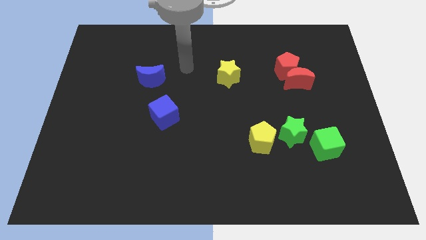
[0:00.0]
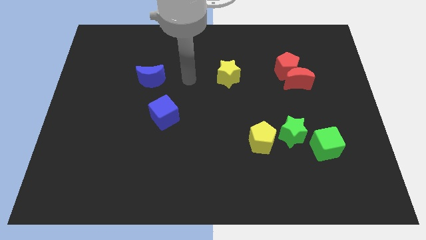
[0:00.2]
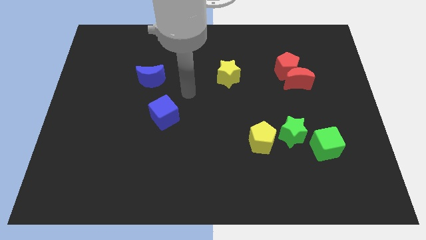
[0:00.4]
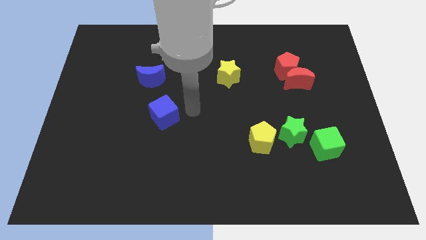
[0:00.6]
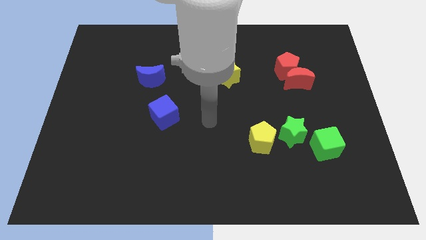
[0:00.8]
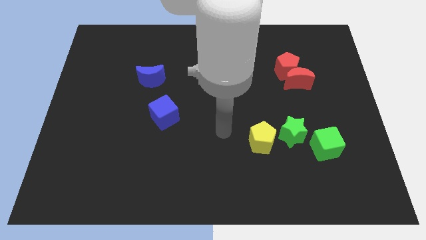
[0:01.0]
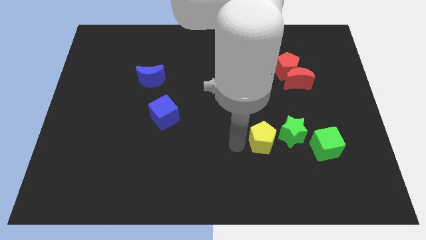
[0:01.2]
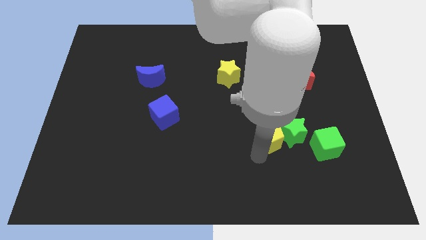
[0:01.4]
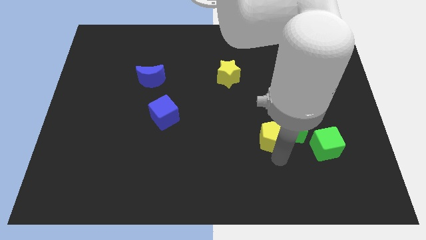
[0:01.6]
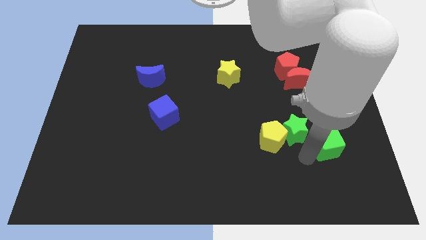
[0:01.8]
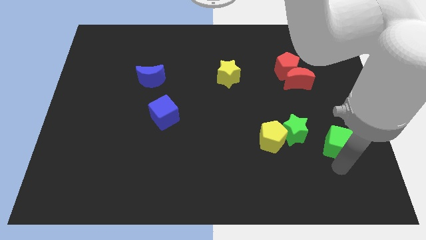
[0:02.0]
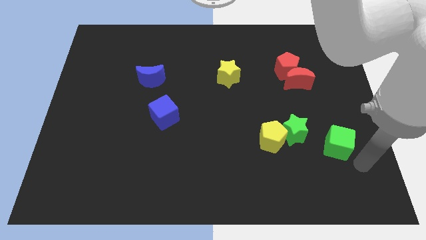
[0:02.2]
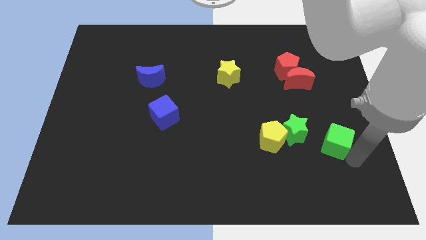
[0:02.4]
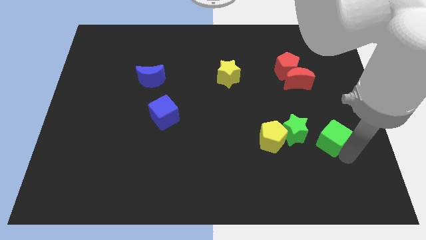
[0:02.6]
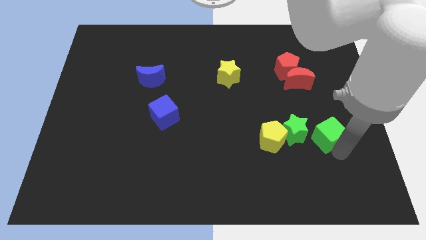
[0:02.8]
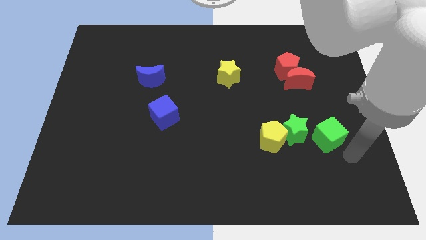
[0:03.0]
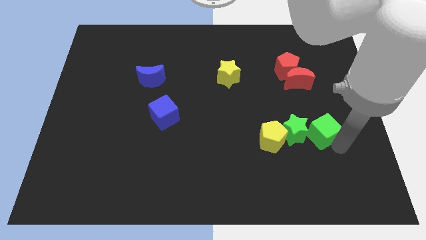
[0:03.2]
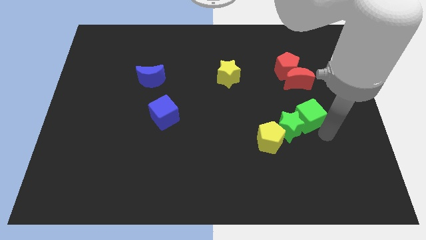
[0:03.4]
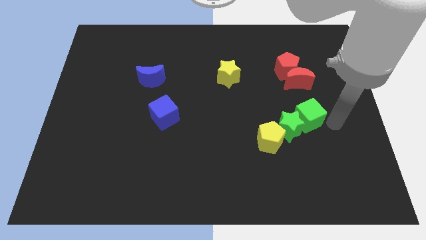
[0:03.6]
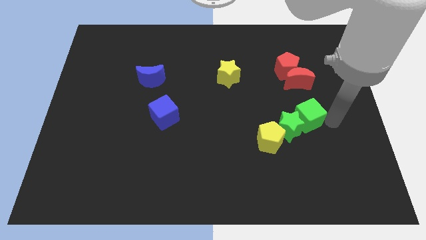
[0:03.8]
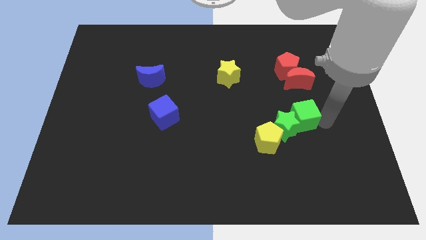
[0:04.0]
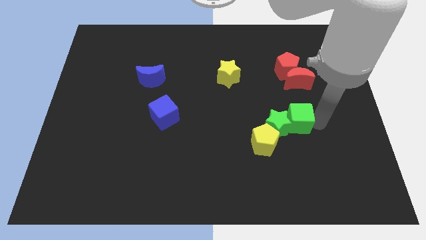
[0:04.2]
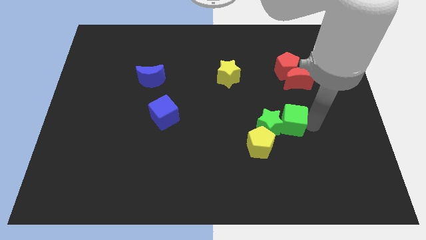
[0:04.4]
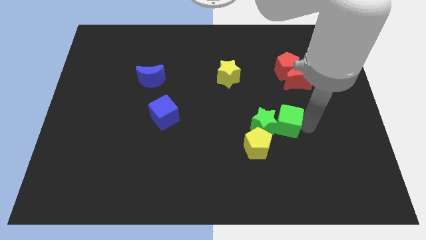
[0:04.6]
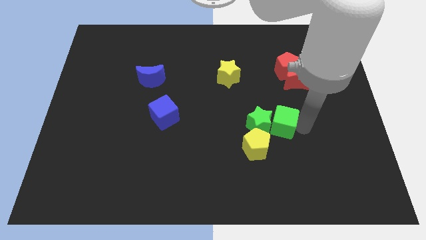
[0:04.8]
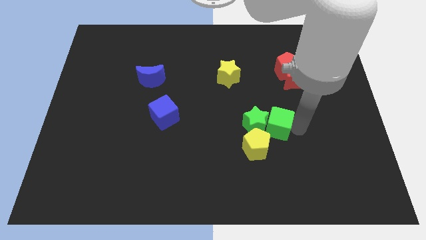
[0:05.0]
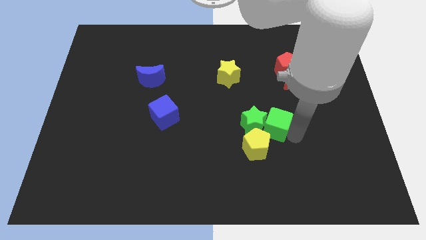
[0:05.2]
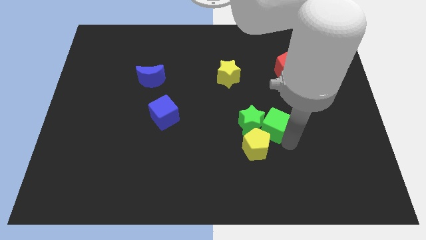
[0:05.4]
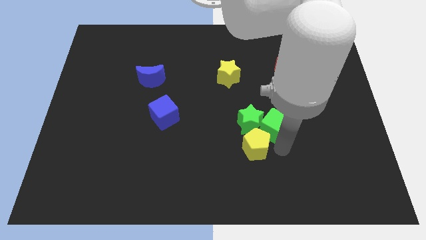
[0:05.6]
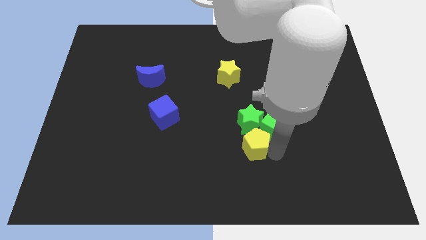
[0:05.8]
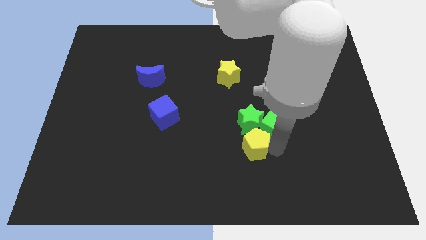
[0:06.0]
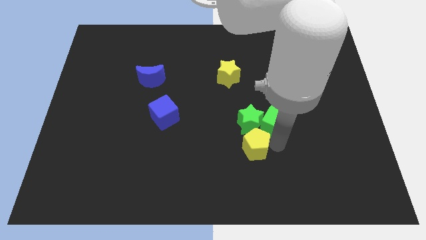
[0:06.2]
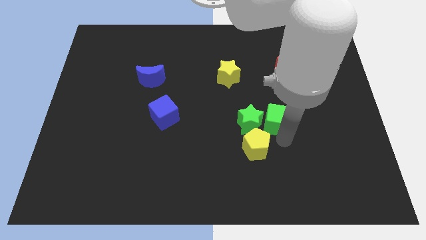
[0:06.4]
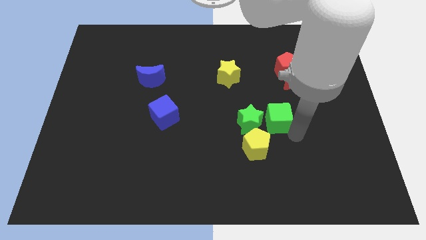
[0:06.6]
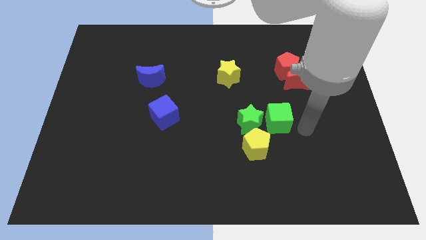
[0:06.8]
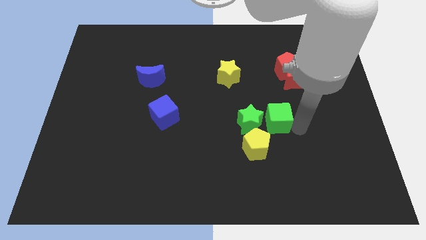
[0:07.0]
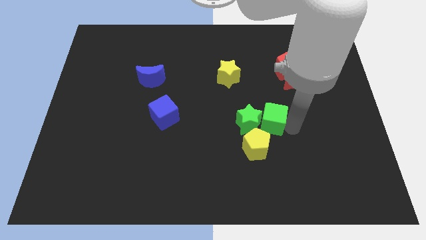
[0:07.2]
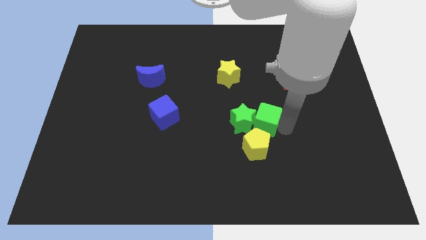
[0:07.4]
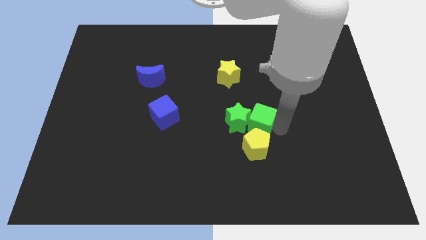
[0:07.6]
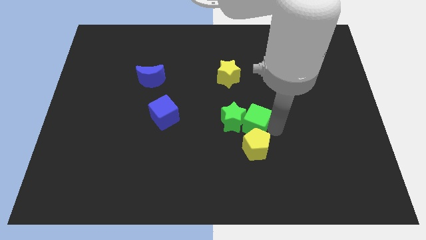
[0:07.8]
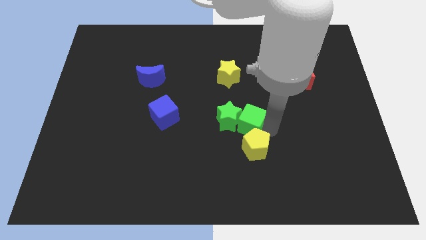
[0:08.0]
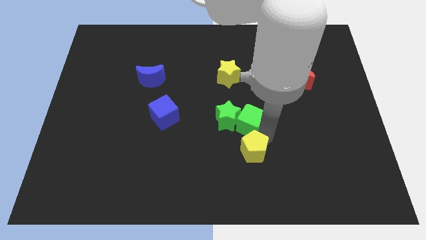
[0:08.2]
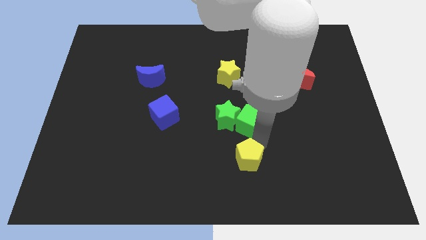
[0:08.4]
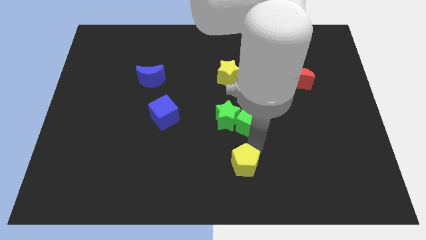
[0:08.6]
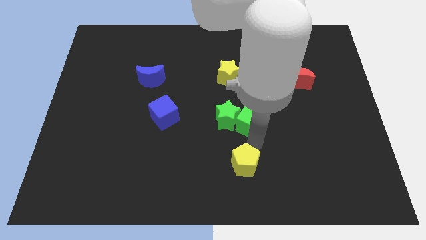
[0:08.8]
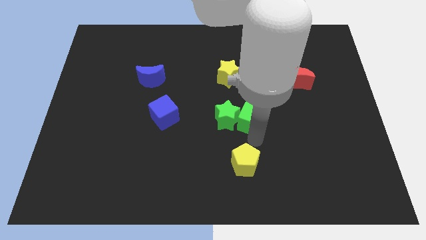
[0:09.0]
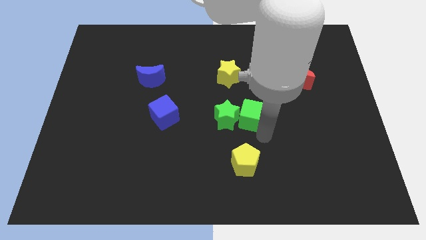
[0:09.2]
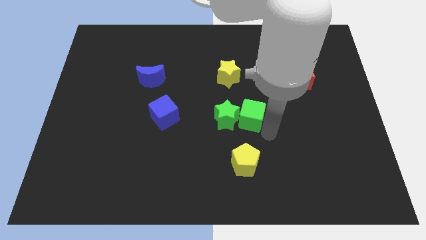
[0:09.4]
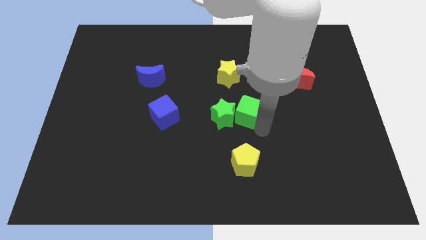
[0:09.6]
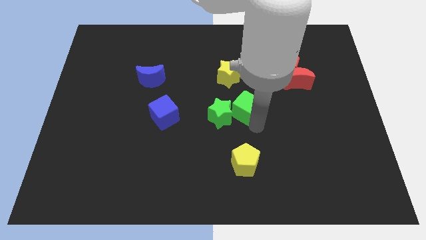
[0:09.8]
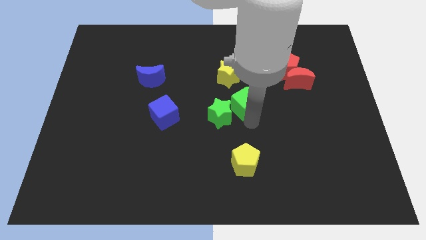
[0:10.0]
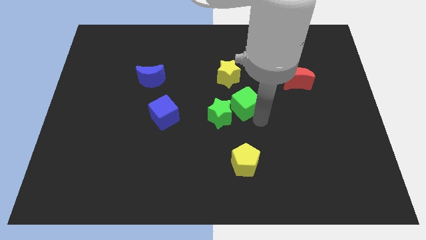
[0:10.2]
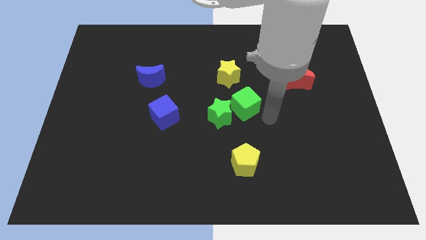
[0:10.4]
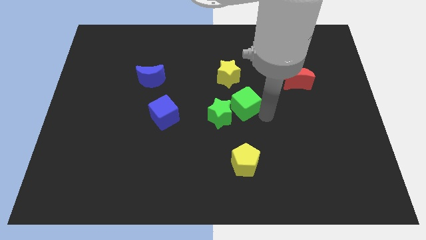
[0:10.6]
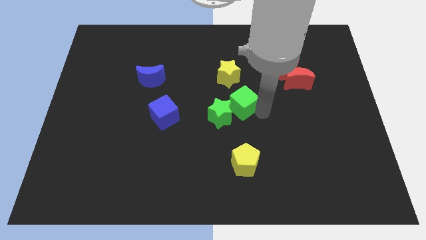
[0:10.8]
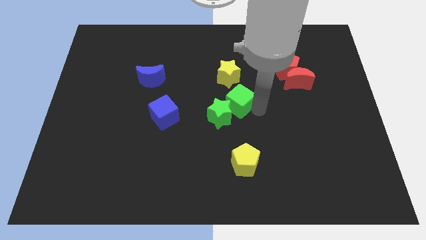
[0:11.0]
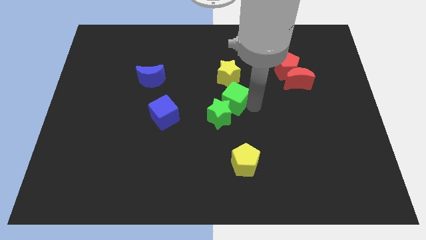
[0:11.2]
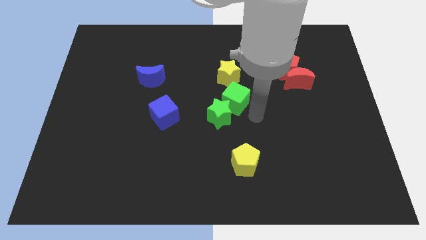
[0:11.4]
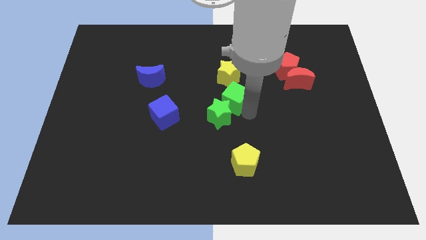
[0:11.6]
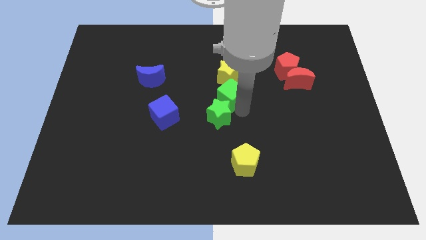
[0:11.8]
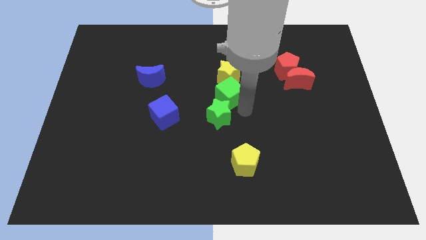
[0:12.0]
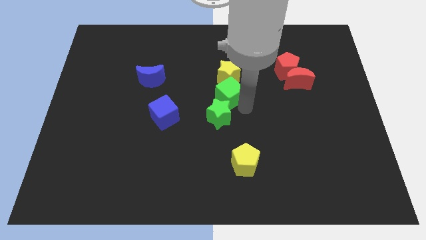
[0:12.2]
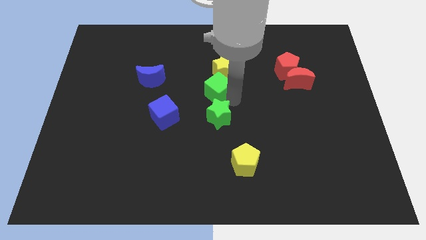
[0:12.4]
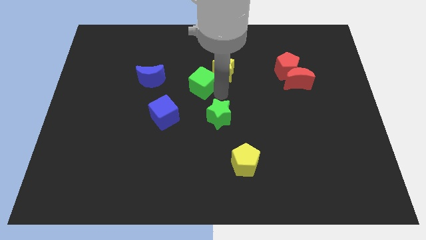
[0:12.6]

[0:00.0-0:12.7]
slide the green cube left of the yellow star
